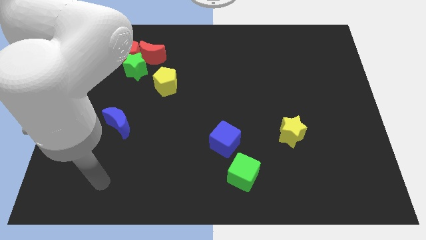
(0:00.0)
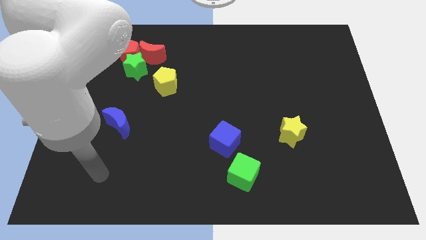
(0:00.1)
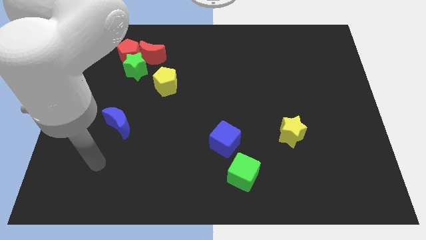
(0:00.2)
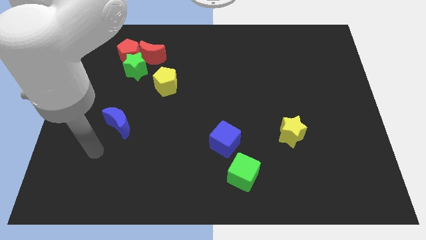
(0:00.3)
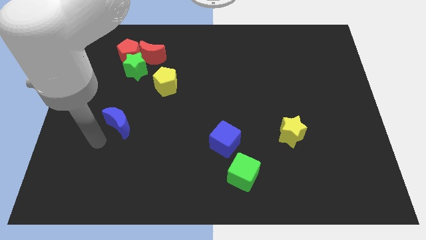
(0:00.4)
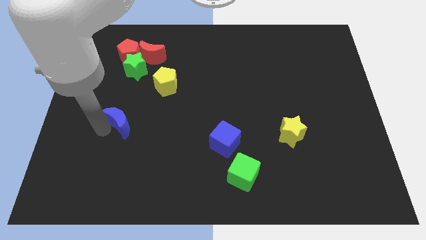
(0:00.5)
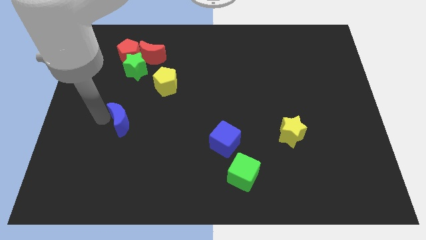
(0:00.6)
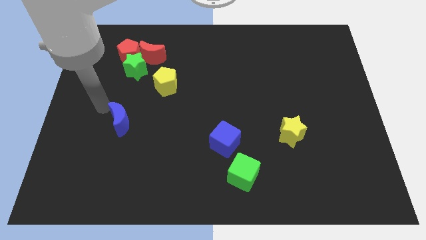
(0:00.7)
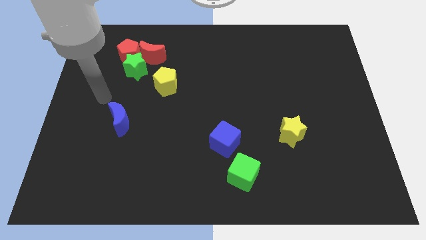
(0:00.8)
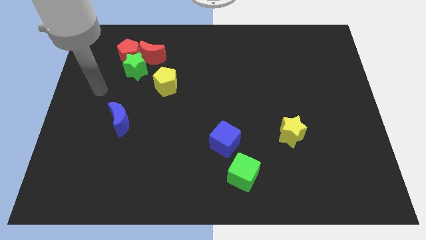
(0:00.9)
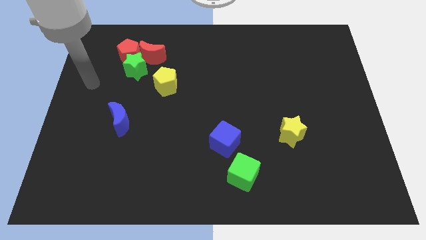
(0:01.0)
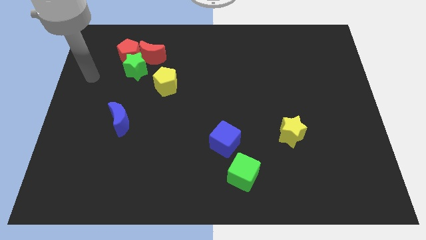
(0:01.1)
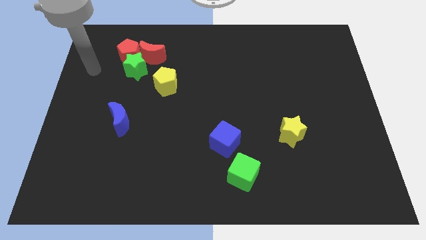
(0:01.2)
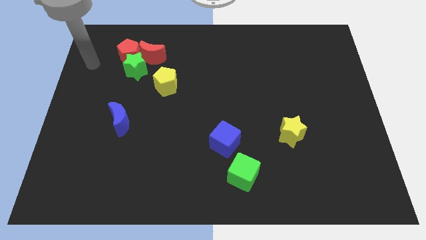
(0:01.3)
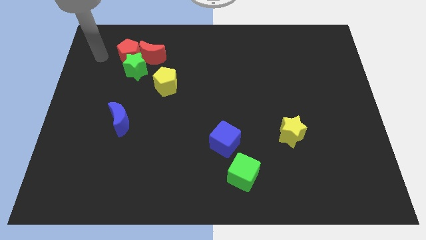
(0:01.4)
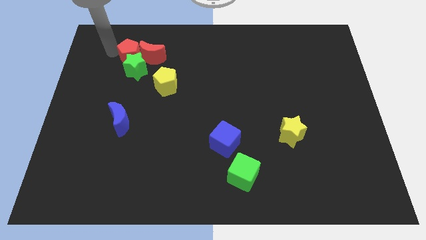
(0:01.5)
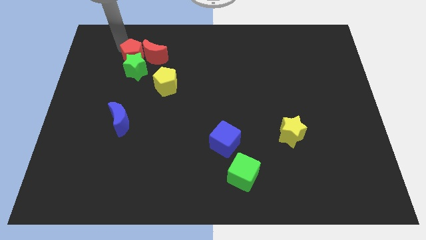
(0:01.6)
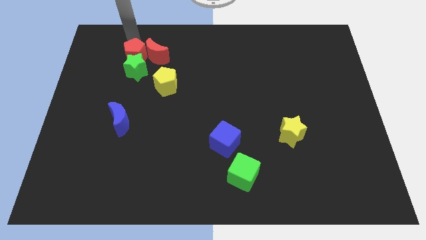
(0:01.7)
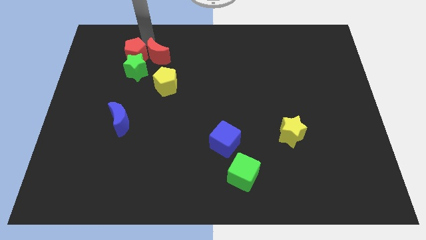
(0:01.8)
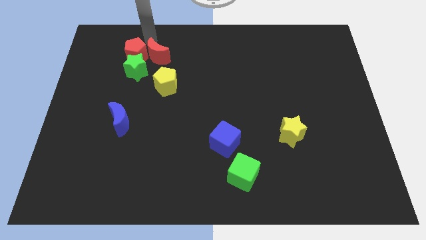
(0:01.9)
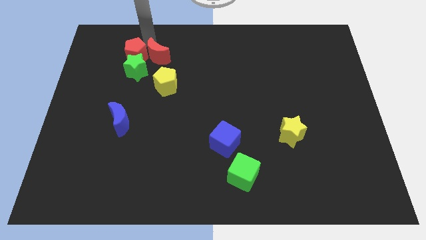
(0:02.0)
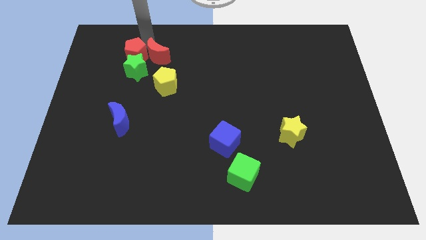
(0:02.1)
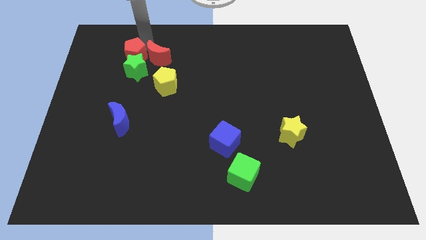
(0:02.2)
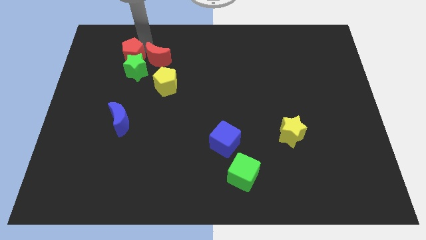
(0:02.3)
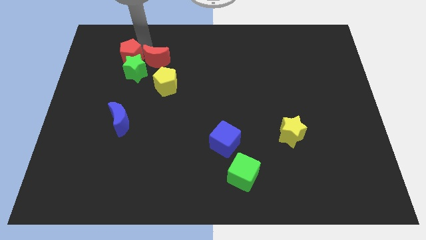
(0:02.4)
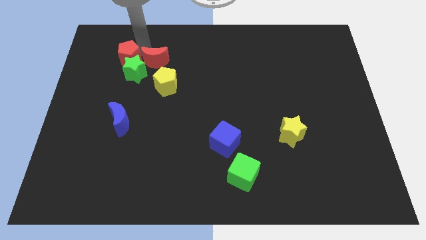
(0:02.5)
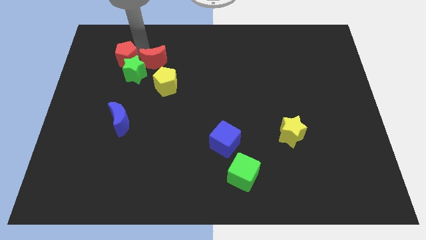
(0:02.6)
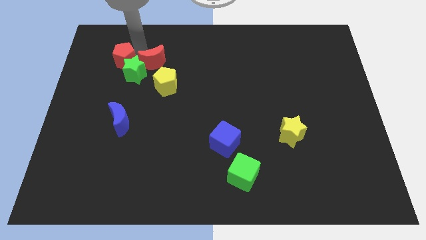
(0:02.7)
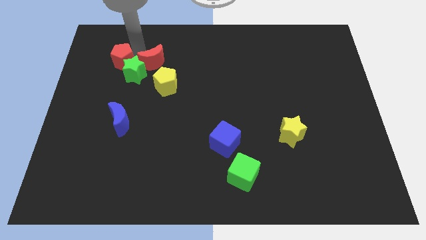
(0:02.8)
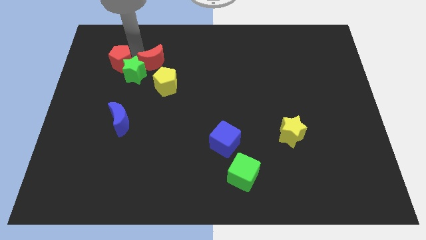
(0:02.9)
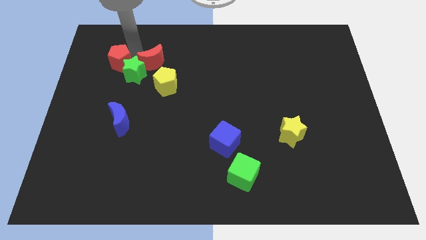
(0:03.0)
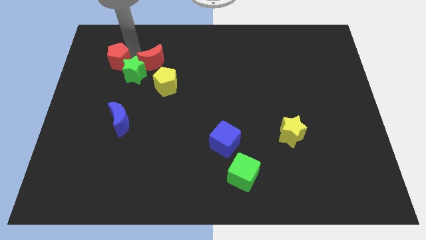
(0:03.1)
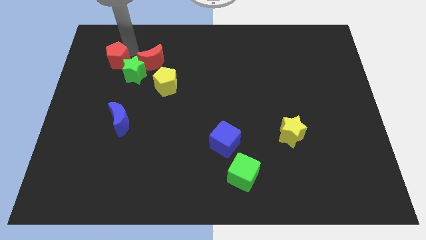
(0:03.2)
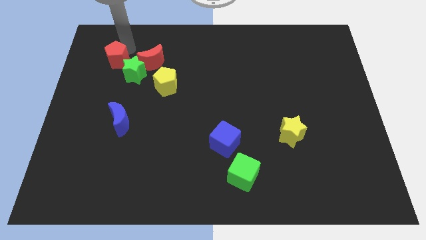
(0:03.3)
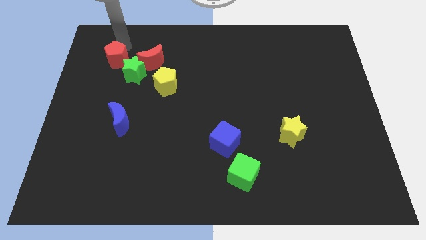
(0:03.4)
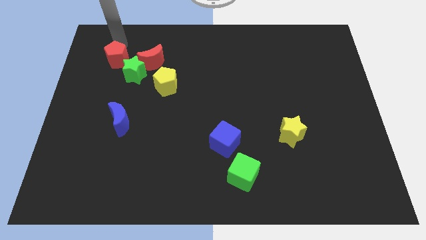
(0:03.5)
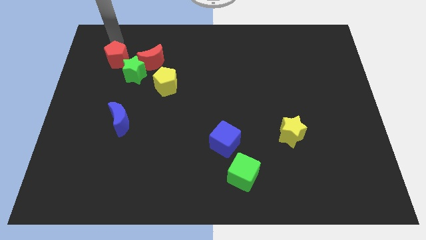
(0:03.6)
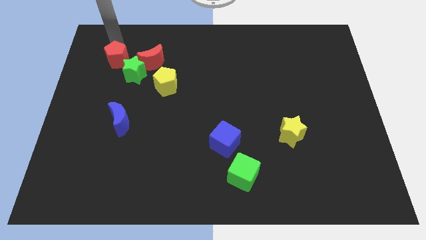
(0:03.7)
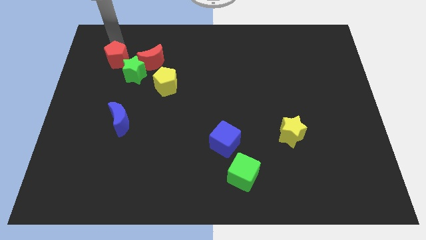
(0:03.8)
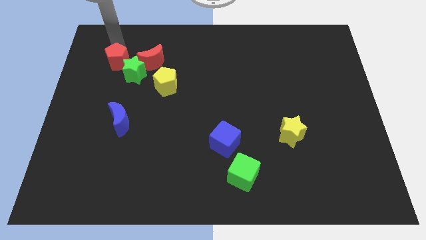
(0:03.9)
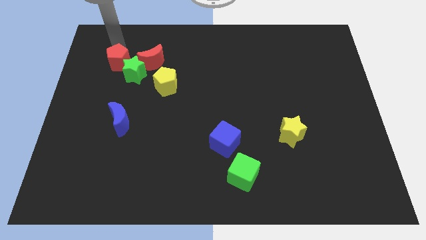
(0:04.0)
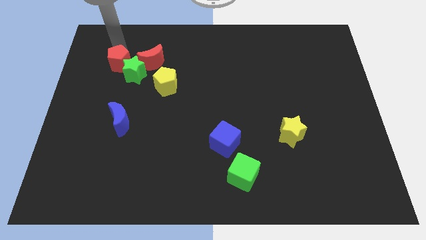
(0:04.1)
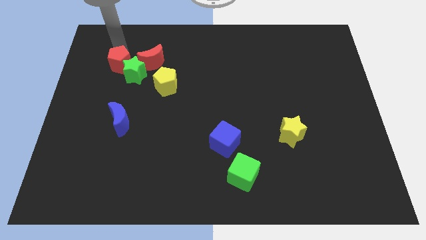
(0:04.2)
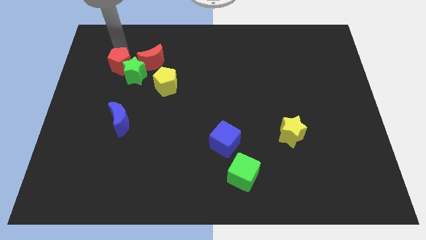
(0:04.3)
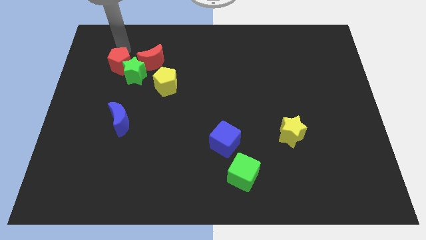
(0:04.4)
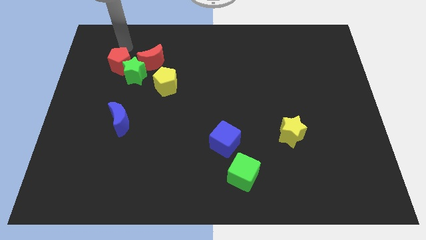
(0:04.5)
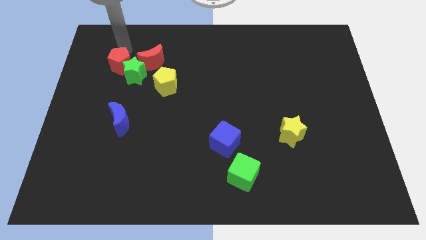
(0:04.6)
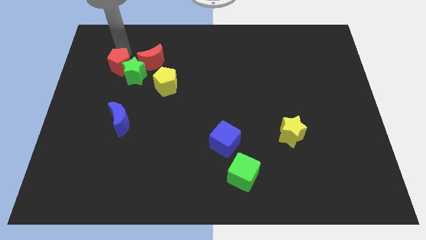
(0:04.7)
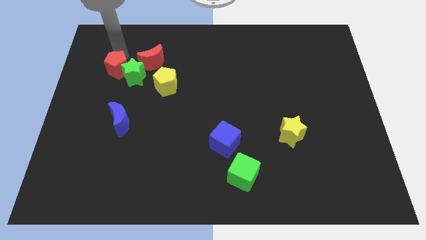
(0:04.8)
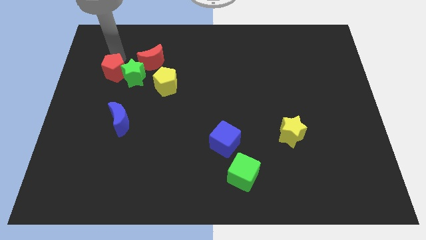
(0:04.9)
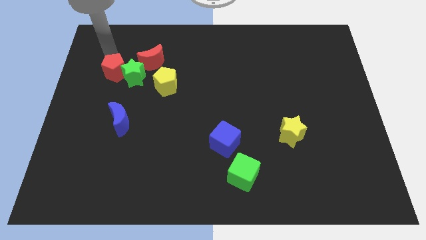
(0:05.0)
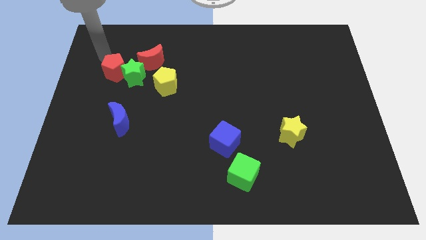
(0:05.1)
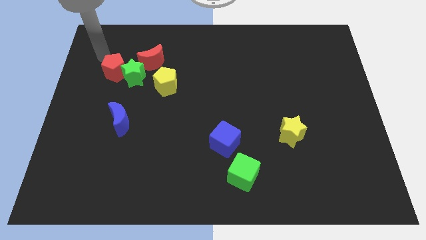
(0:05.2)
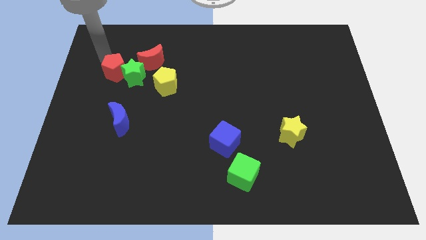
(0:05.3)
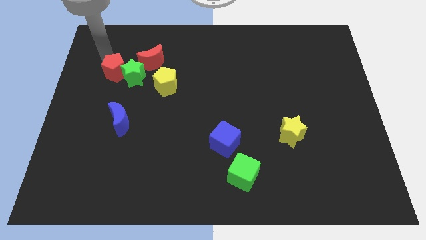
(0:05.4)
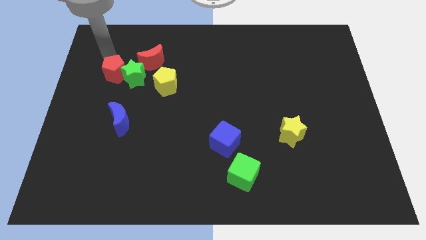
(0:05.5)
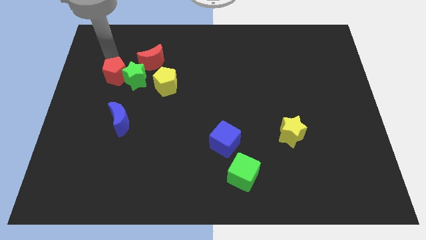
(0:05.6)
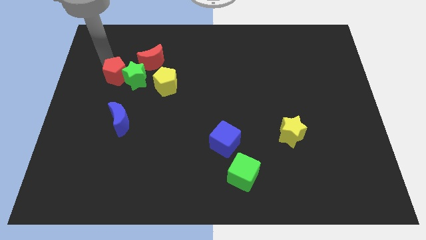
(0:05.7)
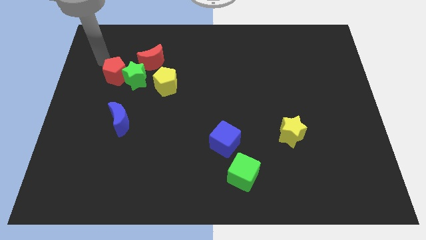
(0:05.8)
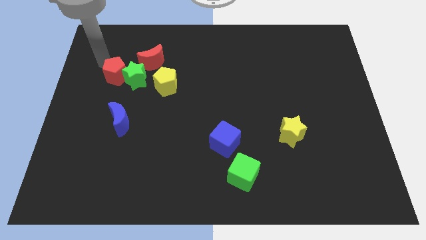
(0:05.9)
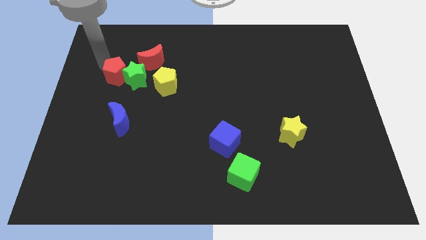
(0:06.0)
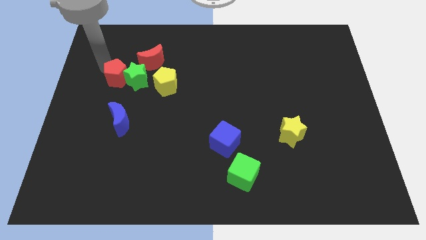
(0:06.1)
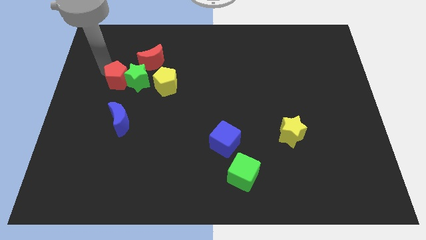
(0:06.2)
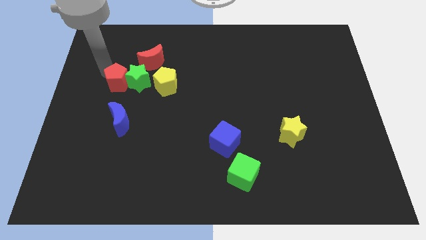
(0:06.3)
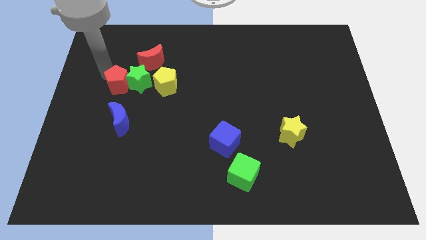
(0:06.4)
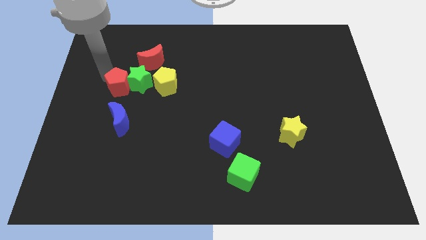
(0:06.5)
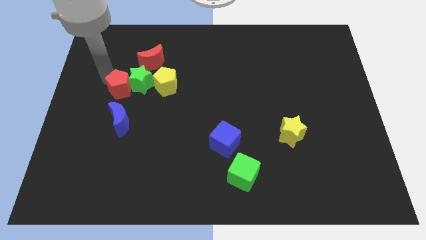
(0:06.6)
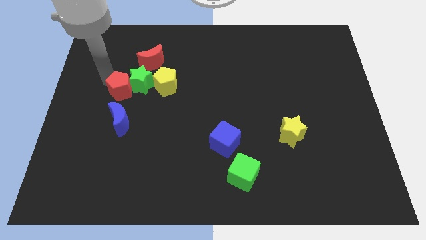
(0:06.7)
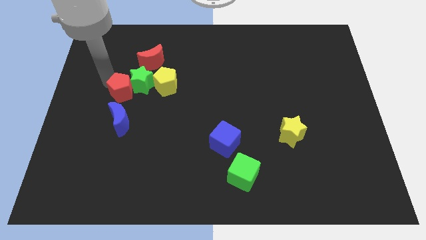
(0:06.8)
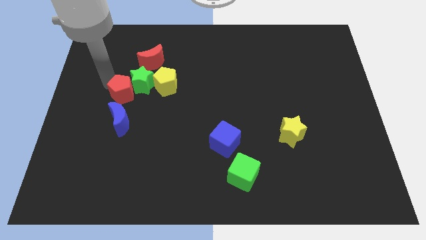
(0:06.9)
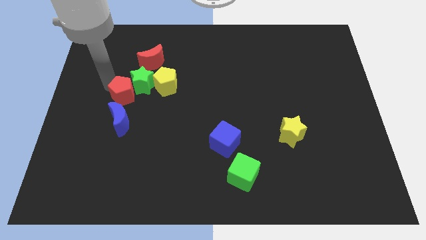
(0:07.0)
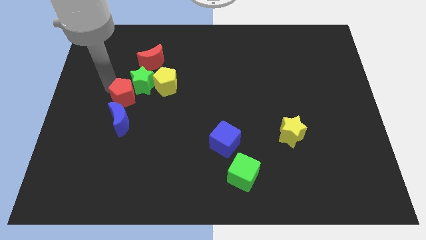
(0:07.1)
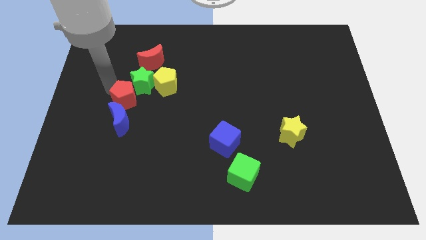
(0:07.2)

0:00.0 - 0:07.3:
slide the red pentagon to the top right side of the blue moon
